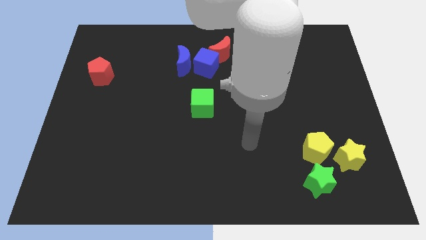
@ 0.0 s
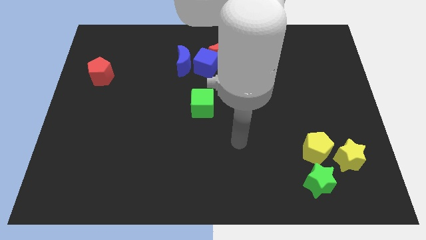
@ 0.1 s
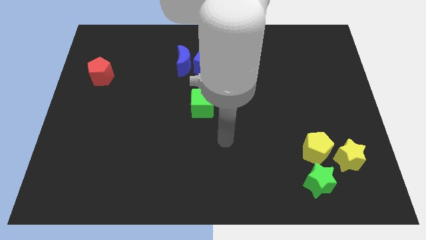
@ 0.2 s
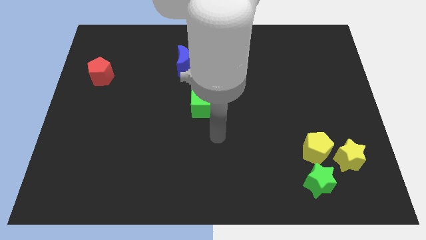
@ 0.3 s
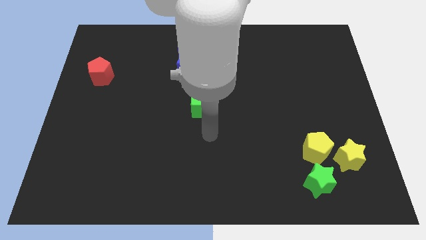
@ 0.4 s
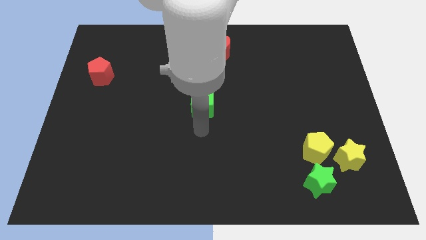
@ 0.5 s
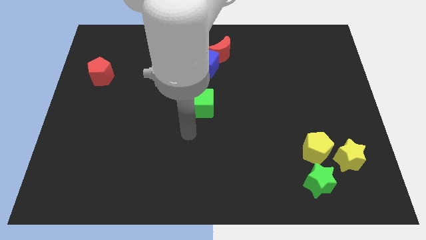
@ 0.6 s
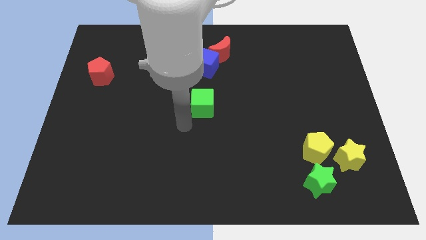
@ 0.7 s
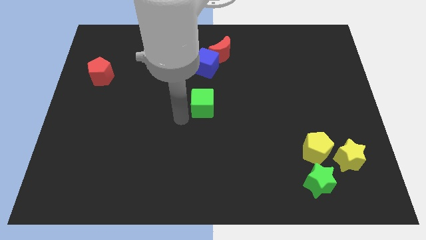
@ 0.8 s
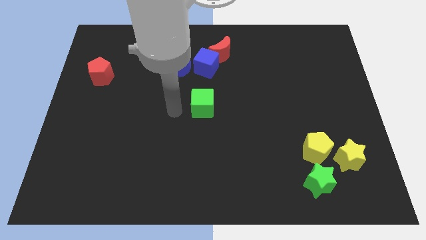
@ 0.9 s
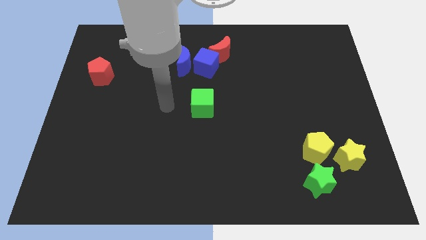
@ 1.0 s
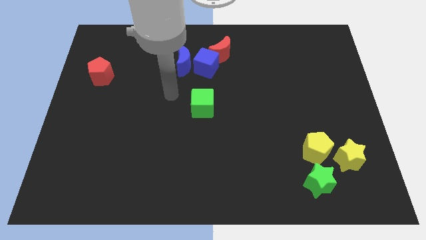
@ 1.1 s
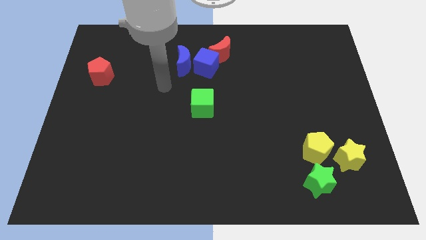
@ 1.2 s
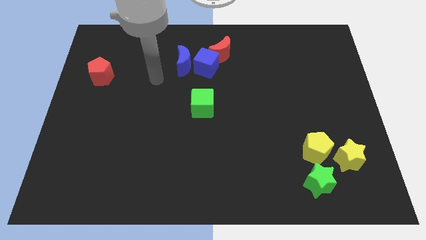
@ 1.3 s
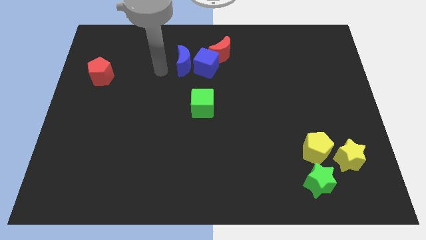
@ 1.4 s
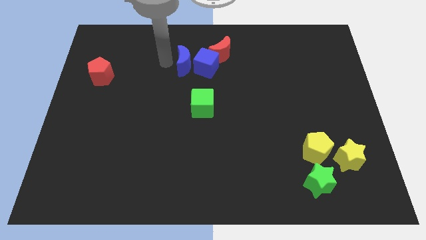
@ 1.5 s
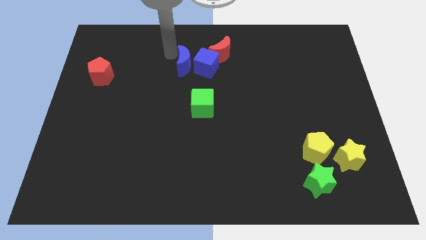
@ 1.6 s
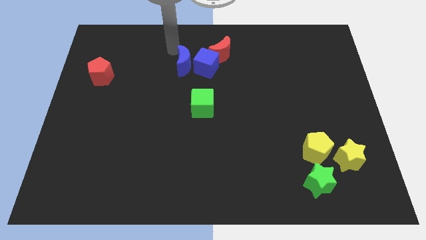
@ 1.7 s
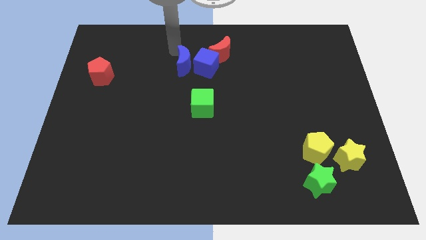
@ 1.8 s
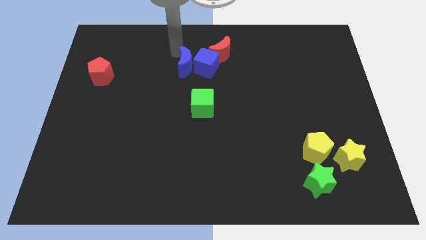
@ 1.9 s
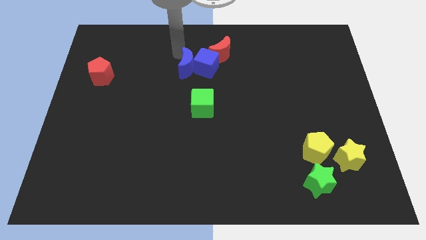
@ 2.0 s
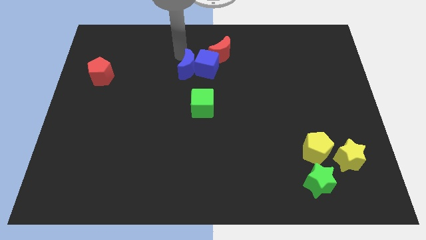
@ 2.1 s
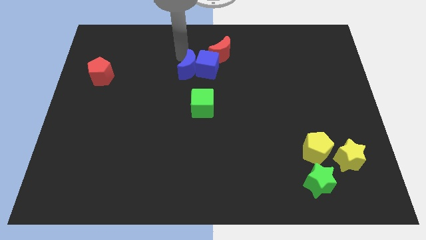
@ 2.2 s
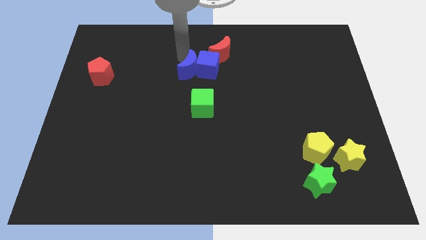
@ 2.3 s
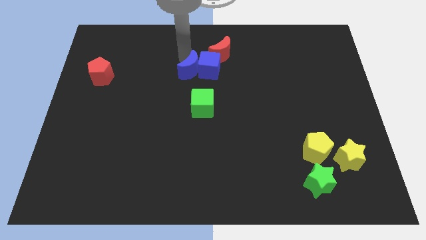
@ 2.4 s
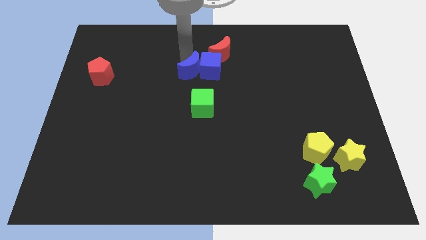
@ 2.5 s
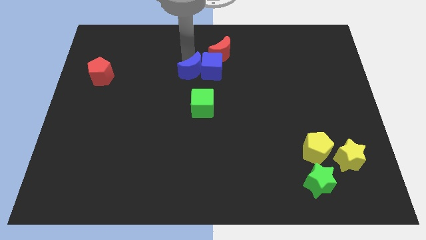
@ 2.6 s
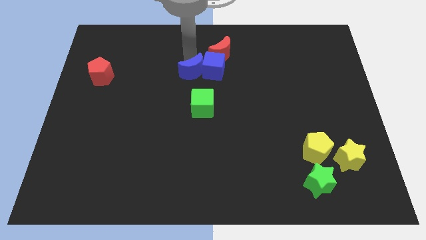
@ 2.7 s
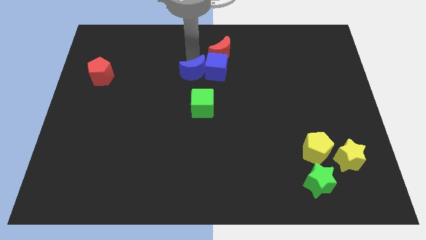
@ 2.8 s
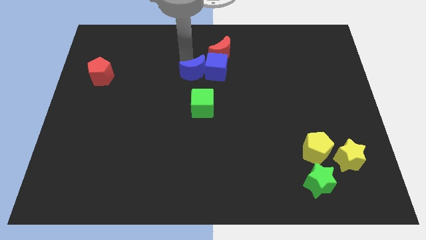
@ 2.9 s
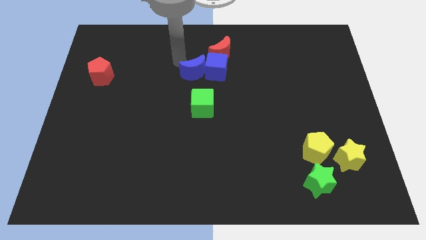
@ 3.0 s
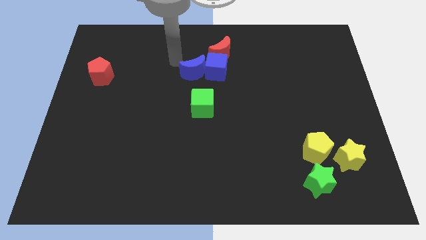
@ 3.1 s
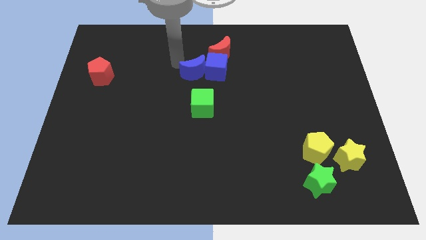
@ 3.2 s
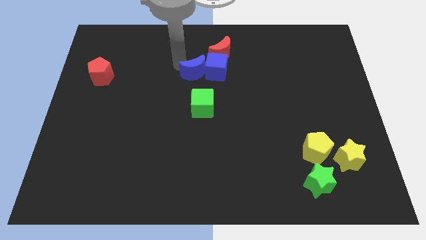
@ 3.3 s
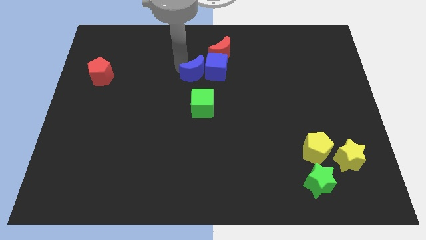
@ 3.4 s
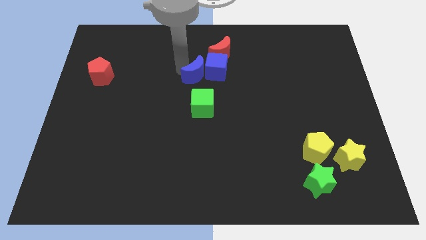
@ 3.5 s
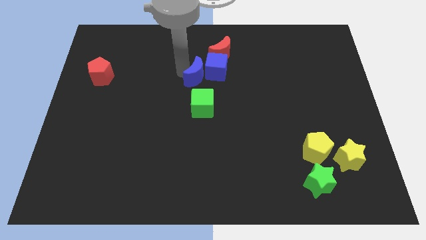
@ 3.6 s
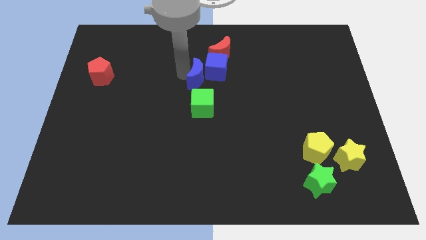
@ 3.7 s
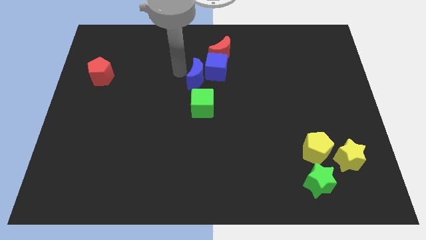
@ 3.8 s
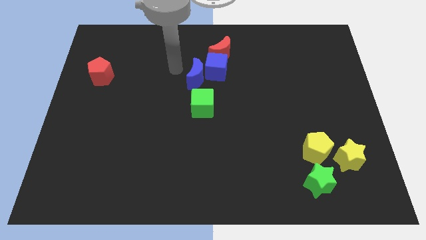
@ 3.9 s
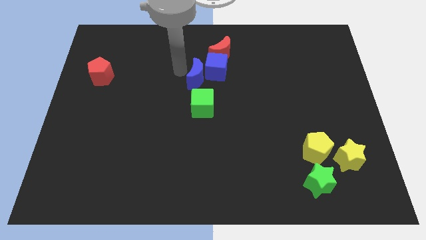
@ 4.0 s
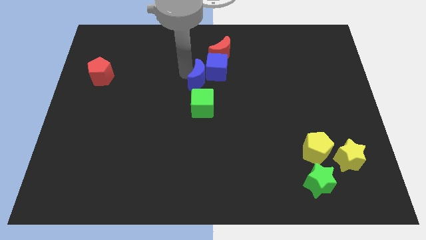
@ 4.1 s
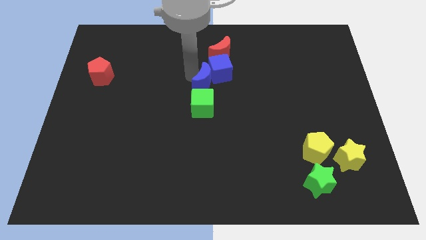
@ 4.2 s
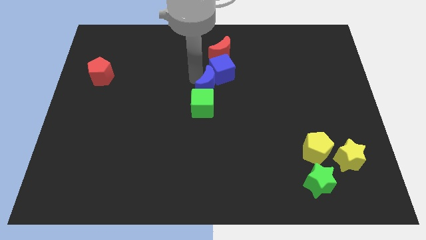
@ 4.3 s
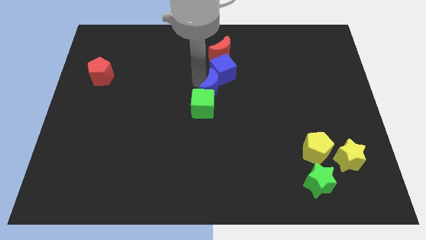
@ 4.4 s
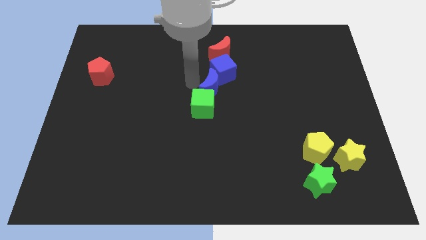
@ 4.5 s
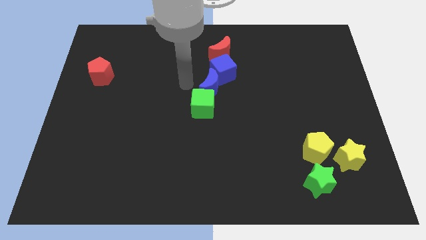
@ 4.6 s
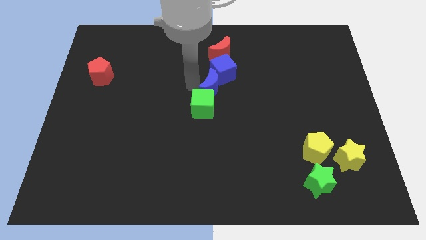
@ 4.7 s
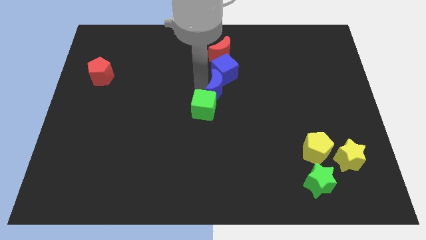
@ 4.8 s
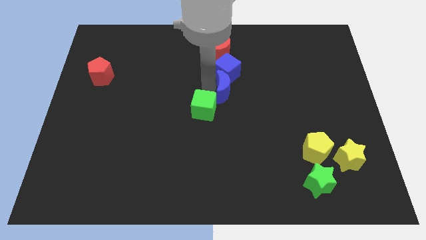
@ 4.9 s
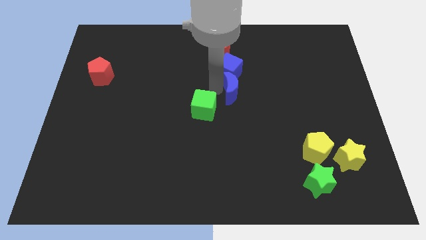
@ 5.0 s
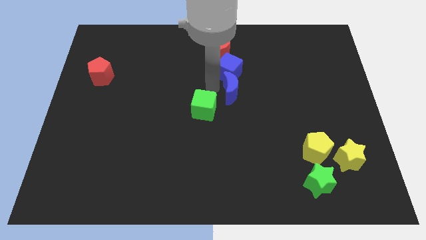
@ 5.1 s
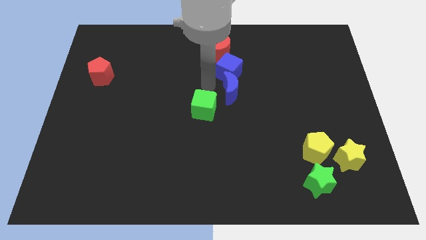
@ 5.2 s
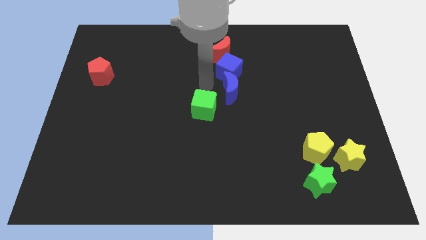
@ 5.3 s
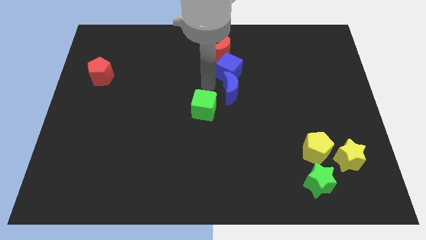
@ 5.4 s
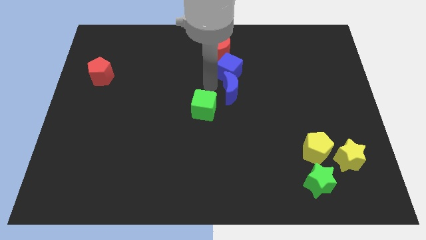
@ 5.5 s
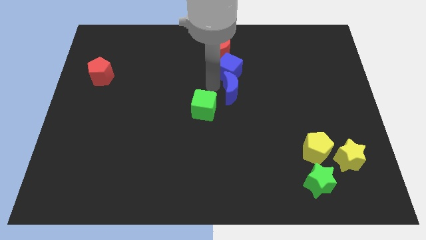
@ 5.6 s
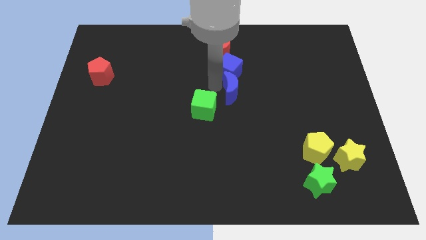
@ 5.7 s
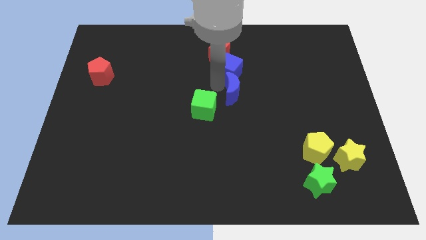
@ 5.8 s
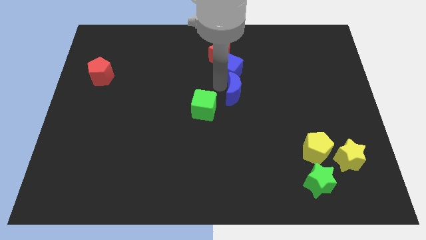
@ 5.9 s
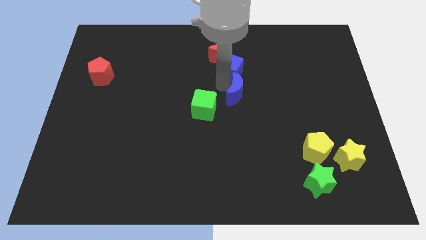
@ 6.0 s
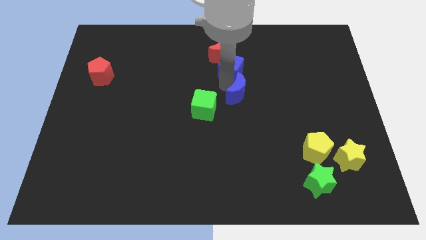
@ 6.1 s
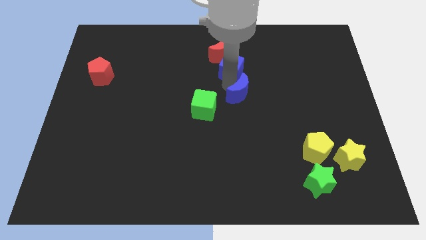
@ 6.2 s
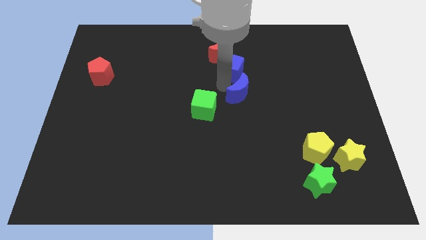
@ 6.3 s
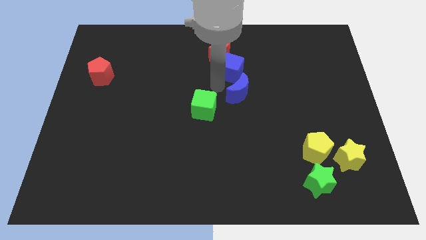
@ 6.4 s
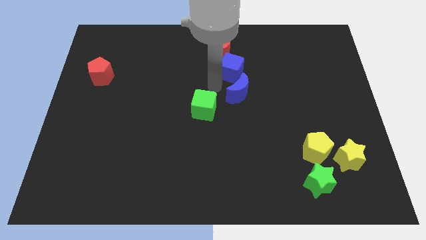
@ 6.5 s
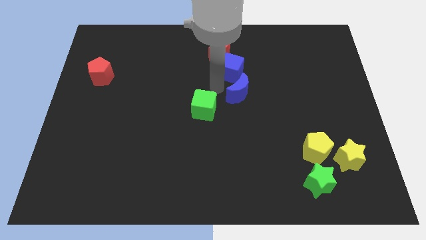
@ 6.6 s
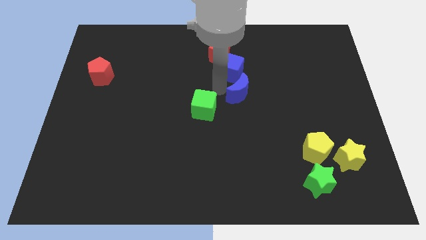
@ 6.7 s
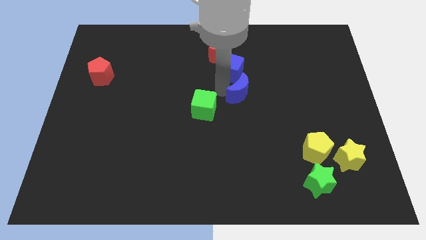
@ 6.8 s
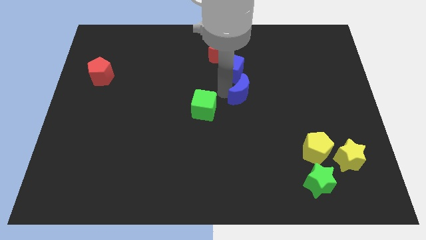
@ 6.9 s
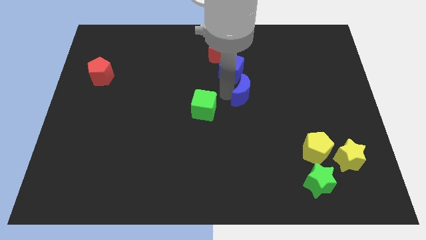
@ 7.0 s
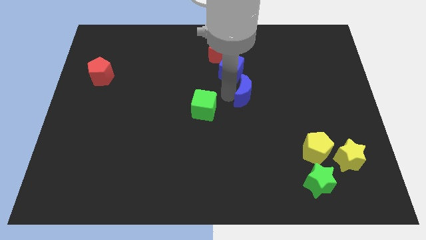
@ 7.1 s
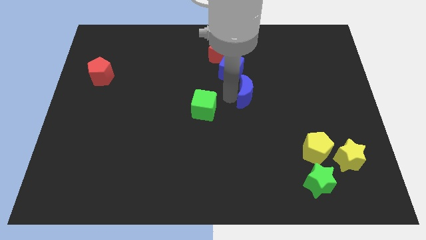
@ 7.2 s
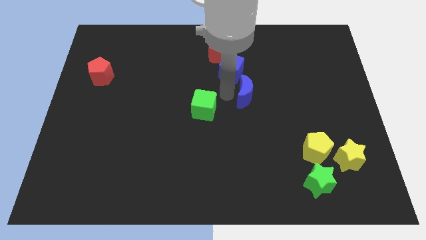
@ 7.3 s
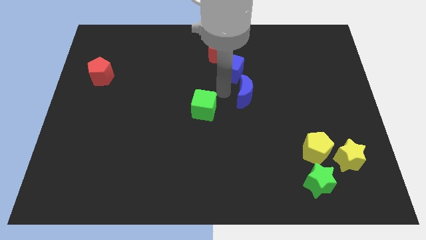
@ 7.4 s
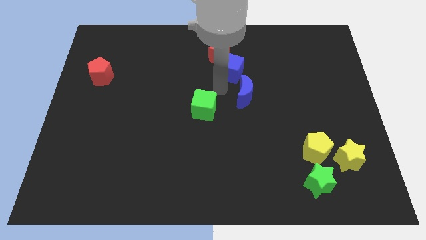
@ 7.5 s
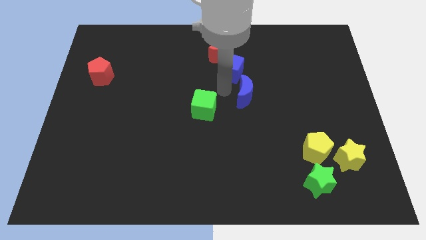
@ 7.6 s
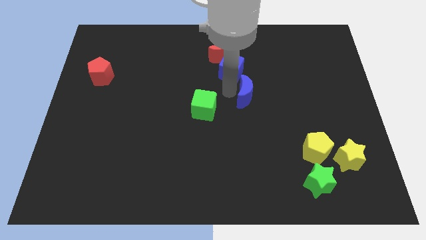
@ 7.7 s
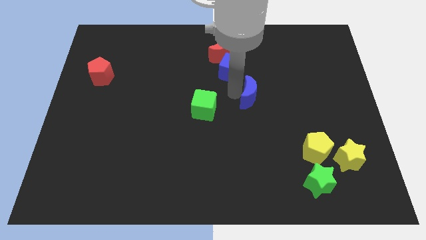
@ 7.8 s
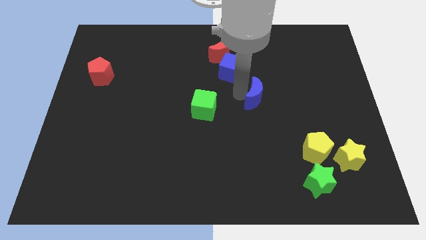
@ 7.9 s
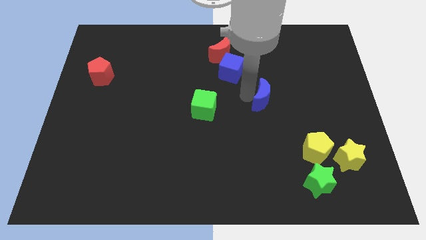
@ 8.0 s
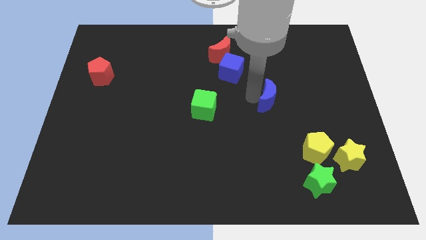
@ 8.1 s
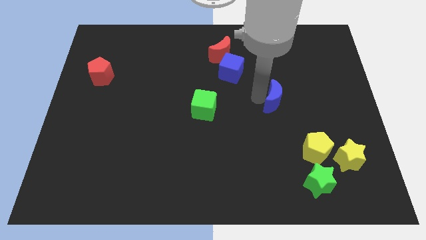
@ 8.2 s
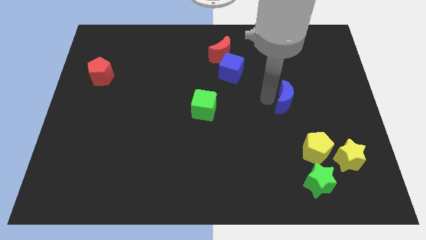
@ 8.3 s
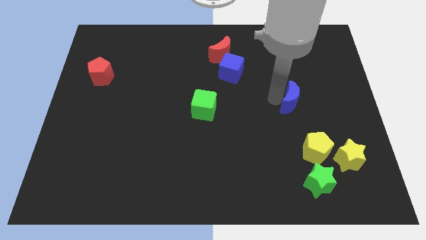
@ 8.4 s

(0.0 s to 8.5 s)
slide the blue moon to the top of the yellow pentagon
